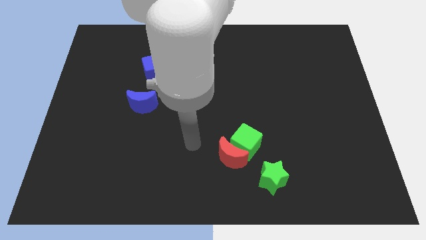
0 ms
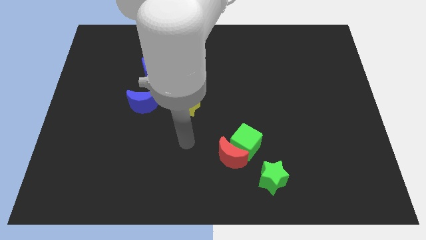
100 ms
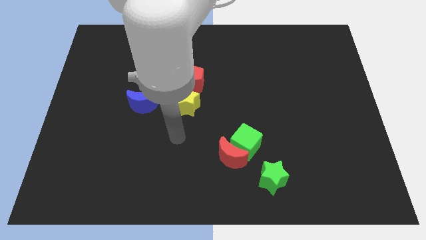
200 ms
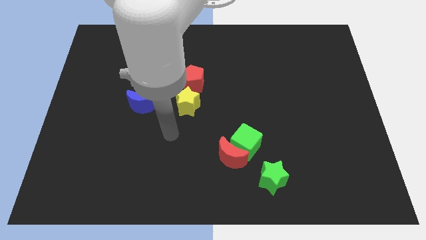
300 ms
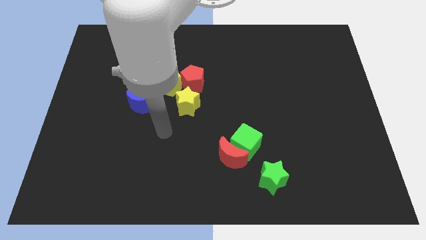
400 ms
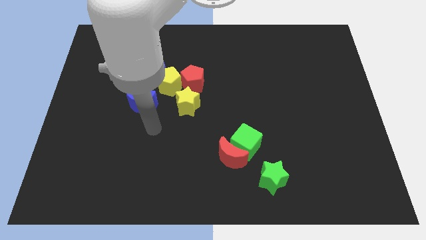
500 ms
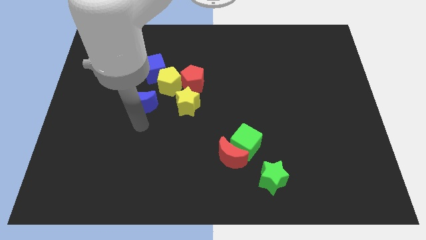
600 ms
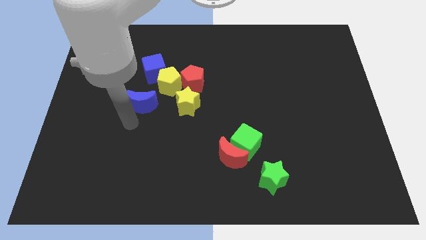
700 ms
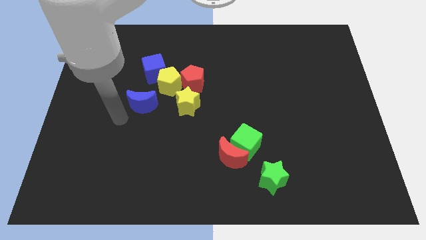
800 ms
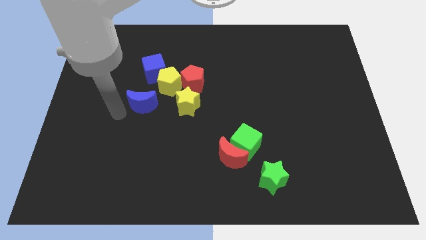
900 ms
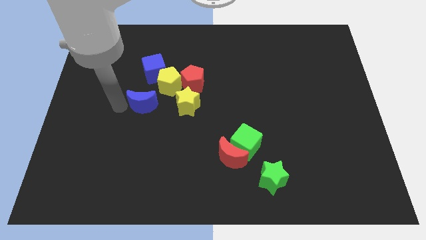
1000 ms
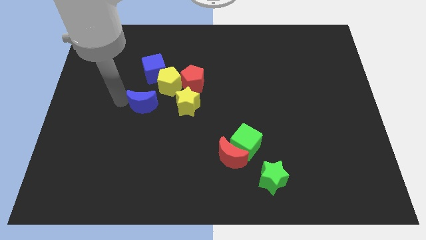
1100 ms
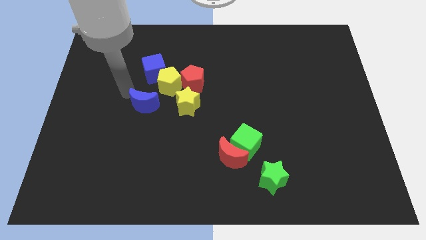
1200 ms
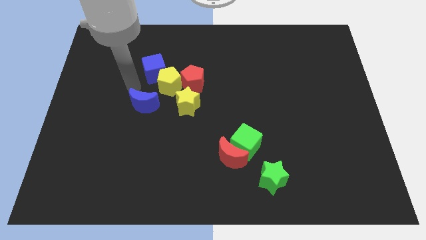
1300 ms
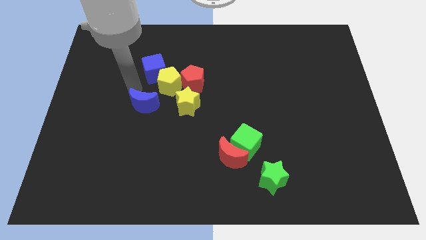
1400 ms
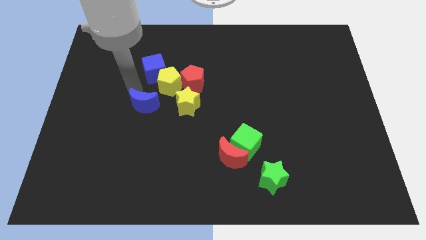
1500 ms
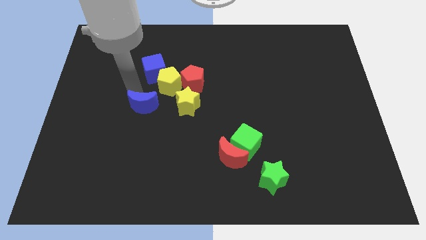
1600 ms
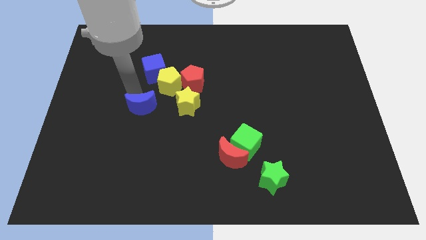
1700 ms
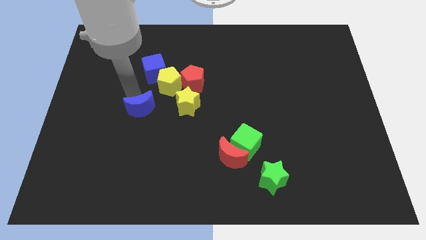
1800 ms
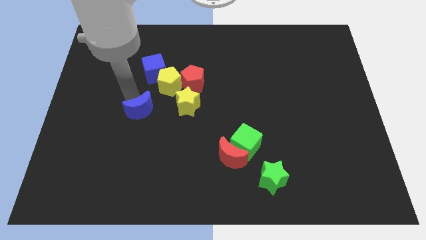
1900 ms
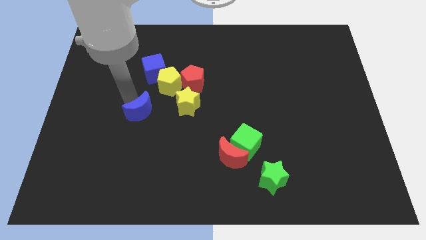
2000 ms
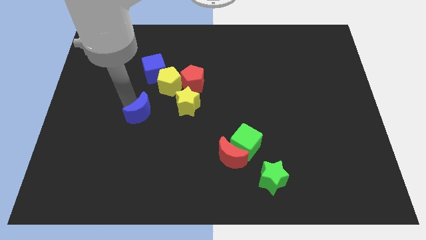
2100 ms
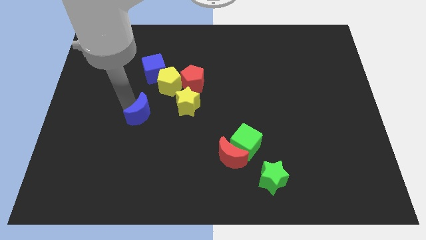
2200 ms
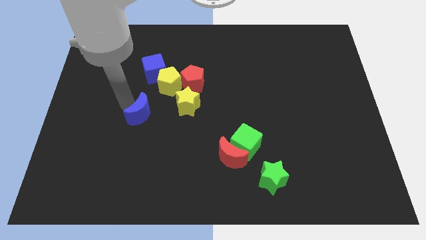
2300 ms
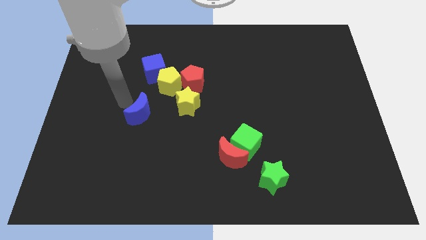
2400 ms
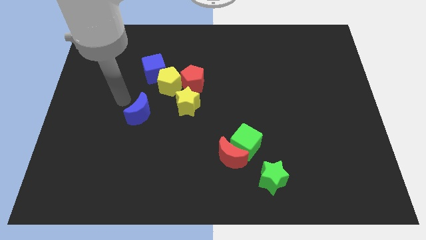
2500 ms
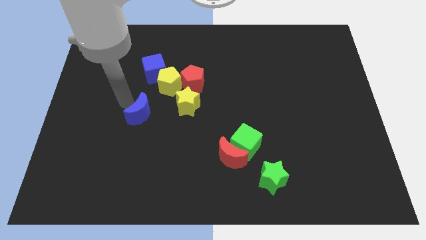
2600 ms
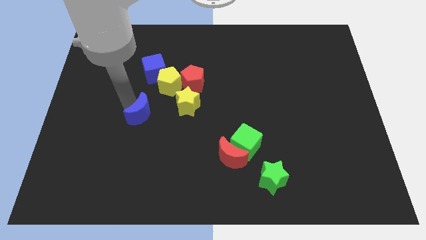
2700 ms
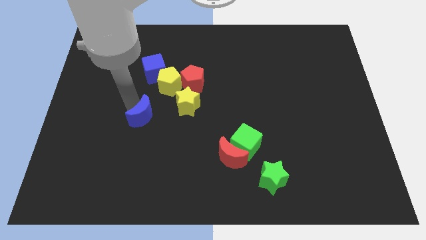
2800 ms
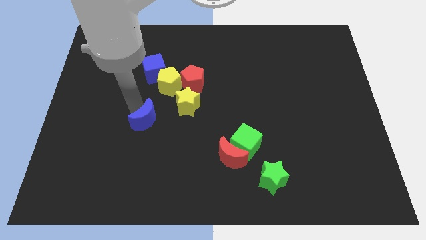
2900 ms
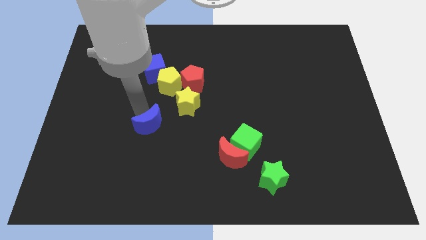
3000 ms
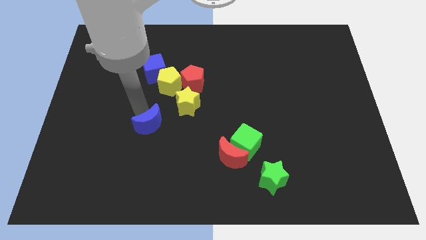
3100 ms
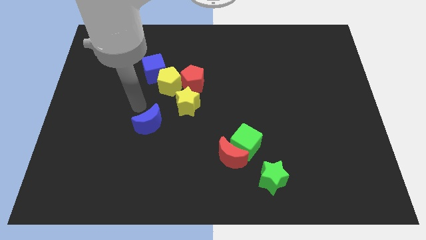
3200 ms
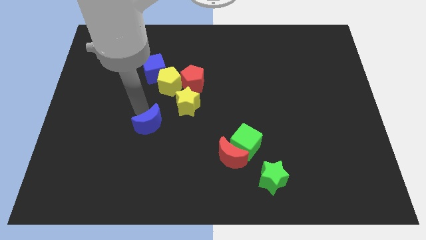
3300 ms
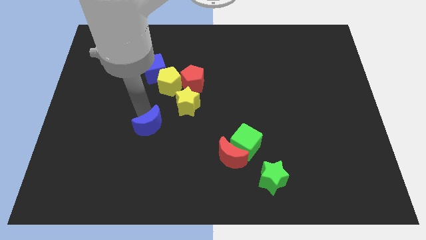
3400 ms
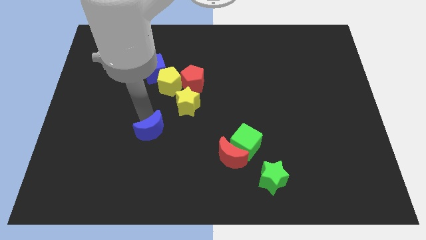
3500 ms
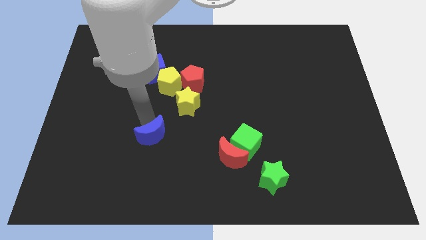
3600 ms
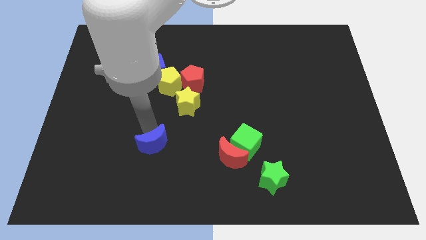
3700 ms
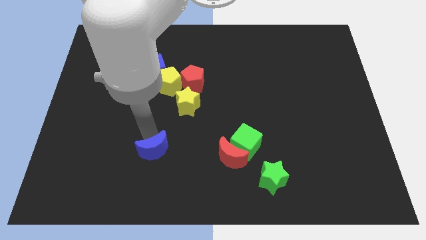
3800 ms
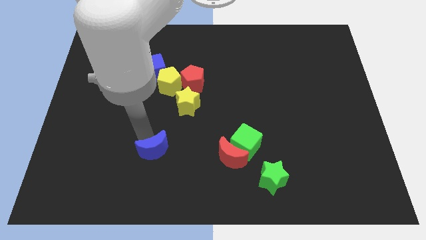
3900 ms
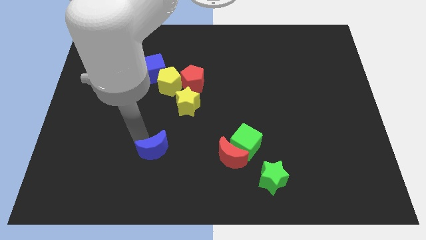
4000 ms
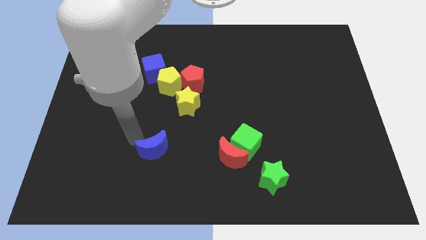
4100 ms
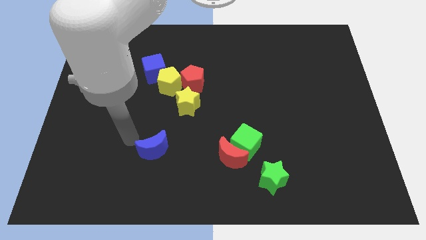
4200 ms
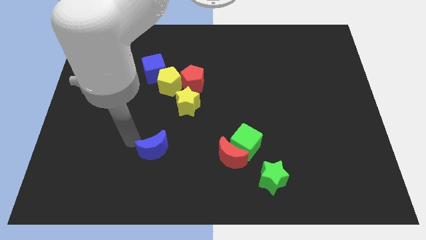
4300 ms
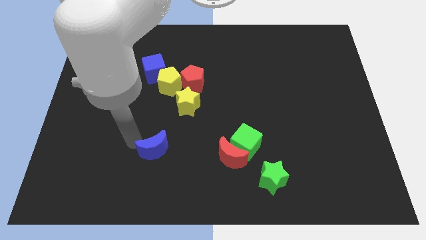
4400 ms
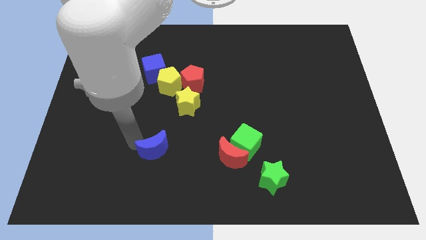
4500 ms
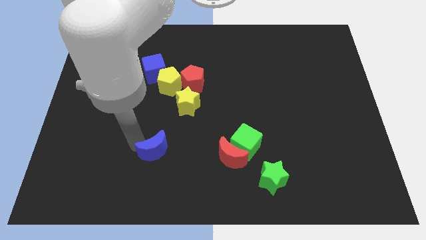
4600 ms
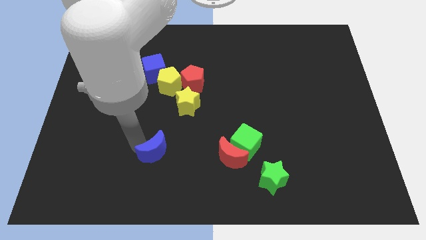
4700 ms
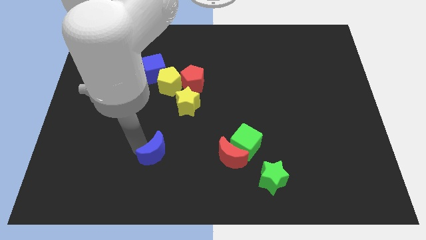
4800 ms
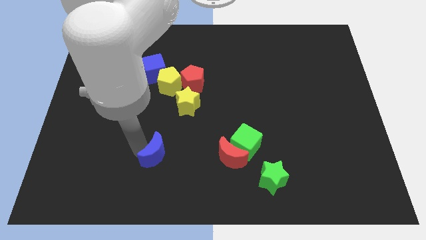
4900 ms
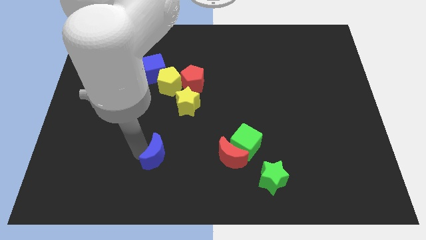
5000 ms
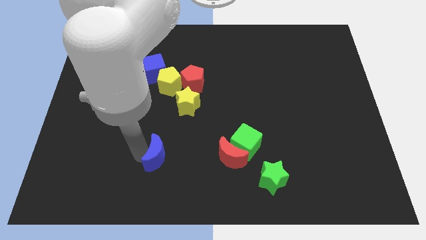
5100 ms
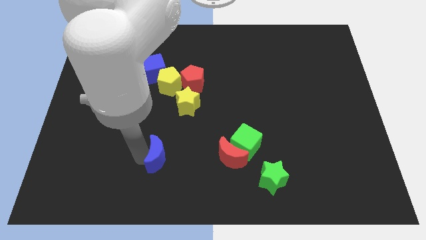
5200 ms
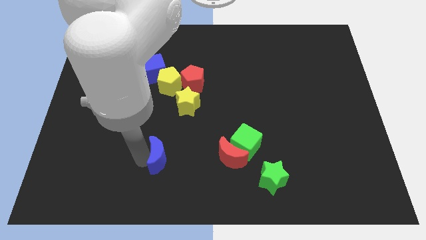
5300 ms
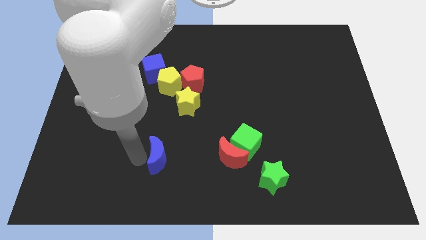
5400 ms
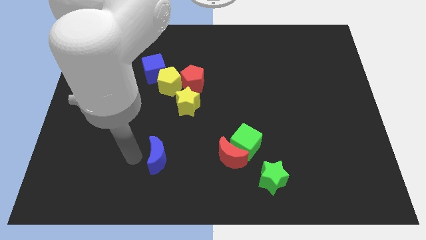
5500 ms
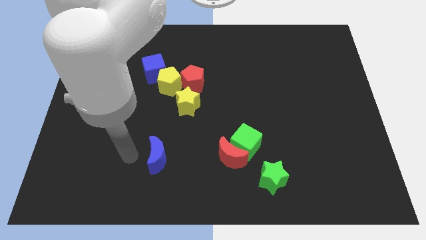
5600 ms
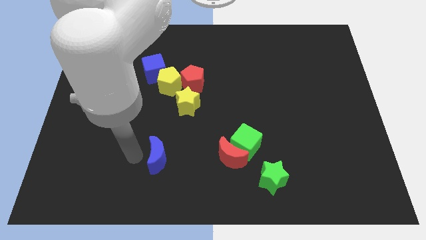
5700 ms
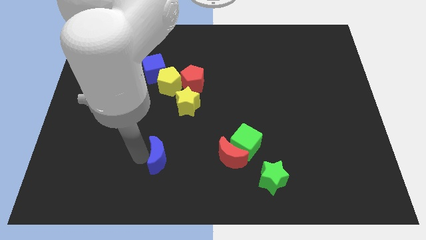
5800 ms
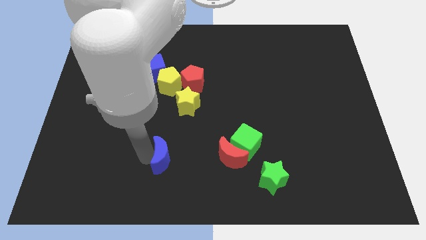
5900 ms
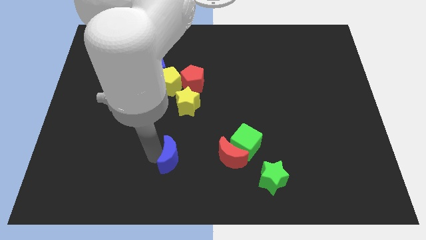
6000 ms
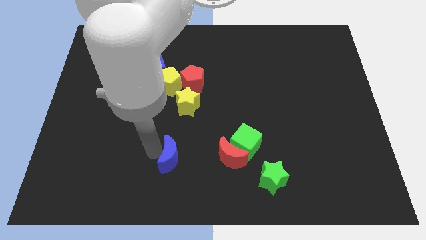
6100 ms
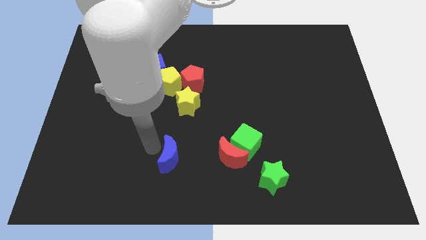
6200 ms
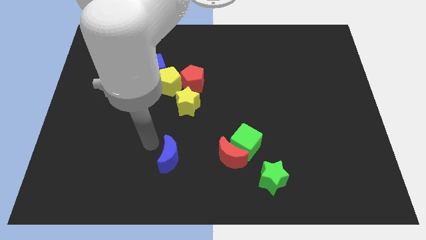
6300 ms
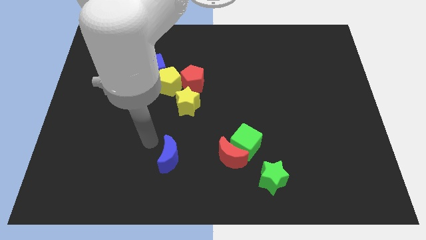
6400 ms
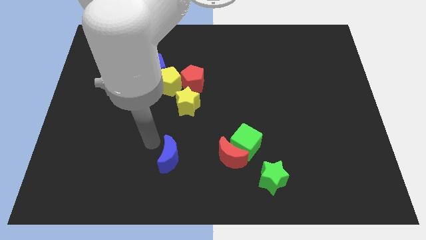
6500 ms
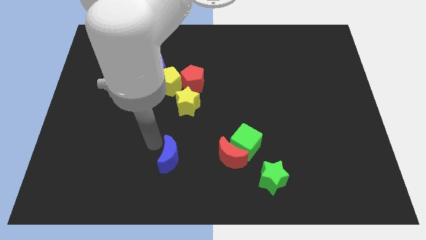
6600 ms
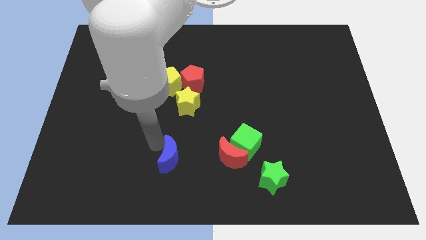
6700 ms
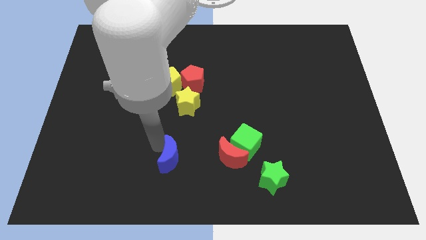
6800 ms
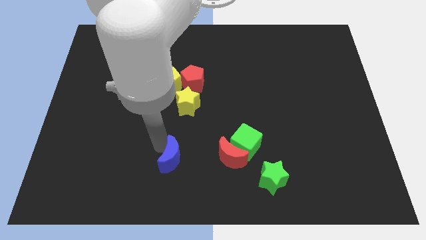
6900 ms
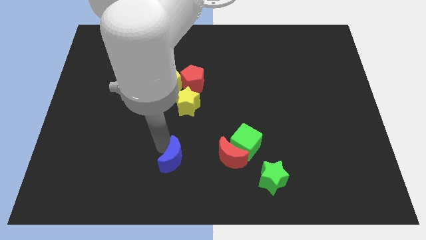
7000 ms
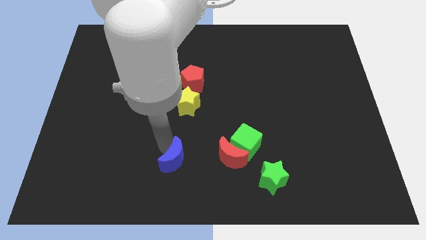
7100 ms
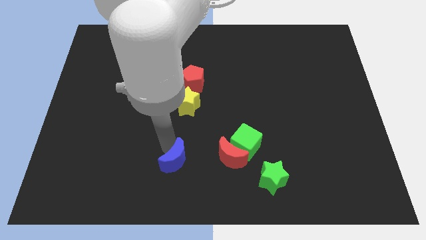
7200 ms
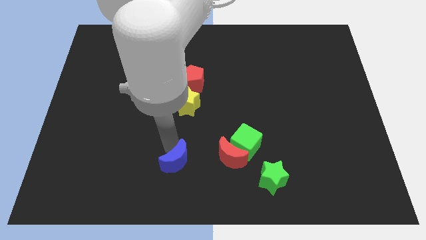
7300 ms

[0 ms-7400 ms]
slide the blue moon to the bottom side
